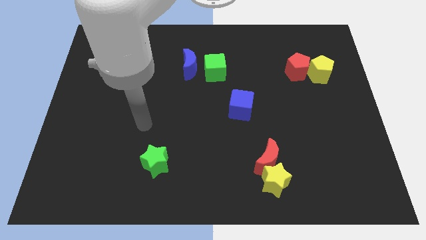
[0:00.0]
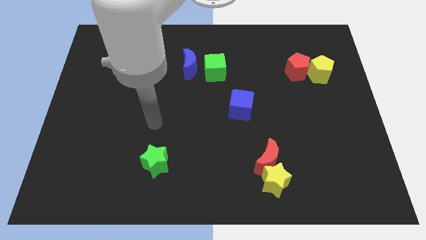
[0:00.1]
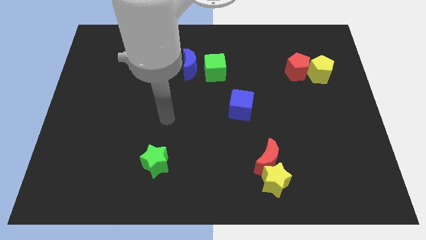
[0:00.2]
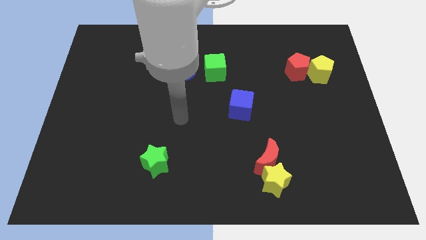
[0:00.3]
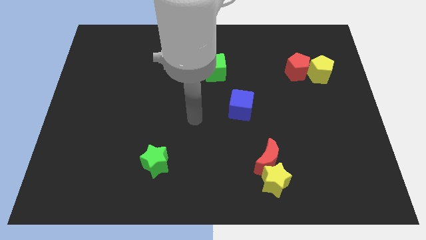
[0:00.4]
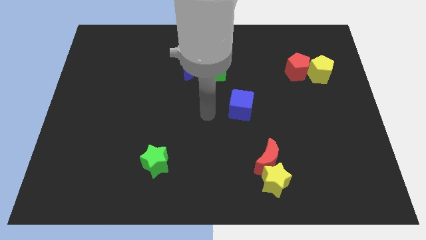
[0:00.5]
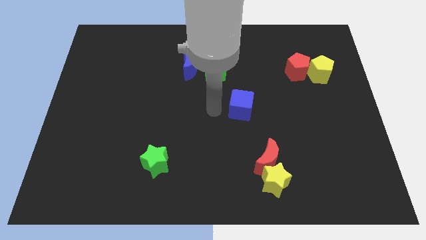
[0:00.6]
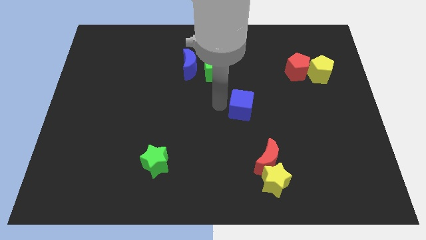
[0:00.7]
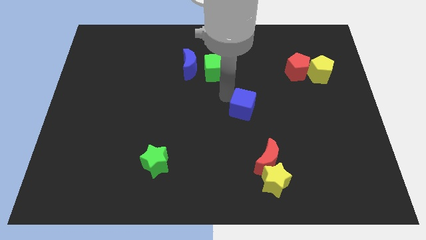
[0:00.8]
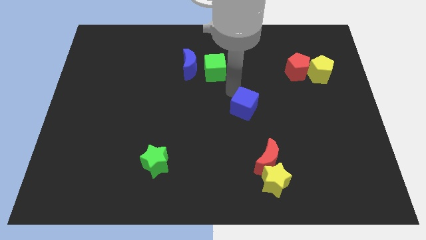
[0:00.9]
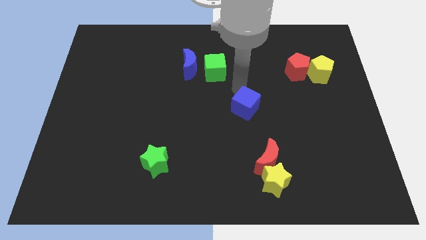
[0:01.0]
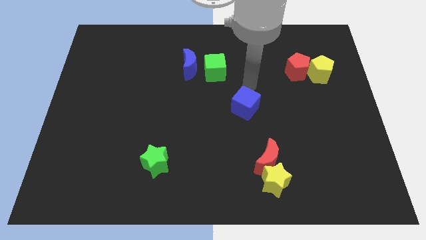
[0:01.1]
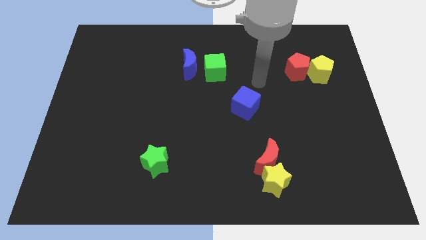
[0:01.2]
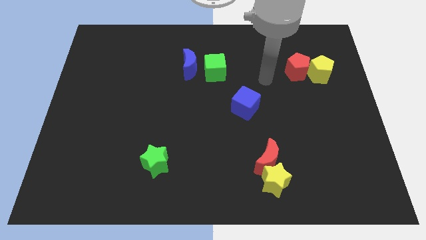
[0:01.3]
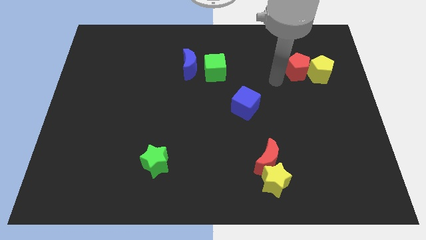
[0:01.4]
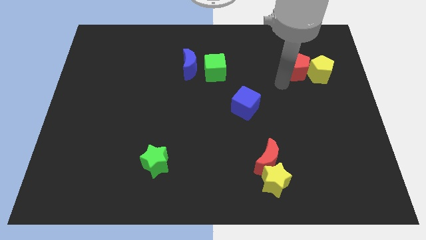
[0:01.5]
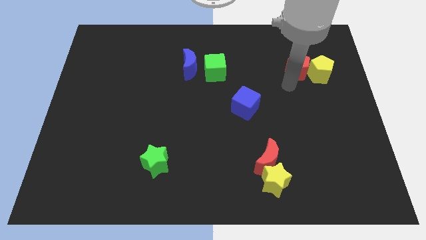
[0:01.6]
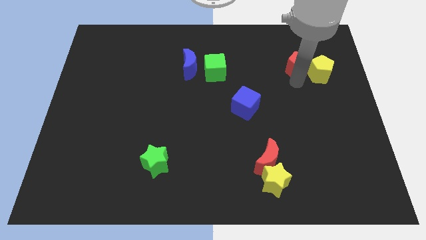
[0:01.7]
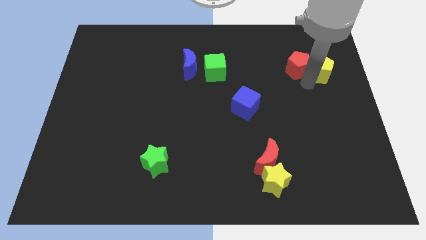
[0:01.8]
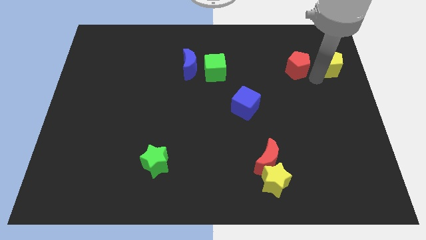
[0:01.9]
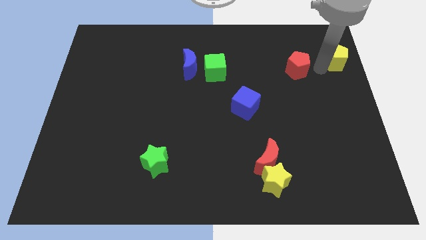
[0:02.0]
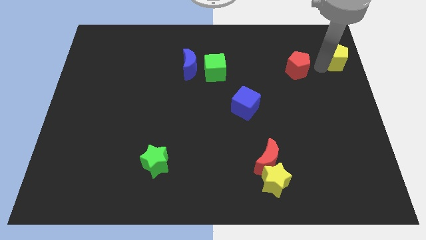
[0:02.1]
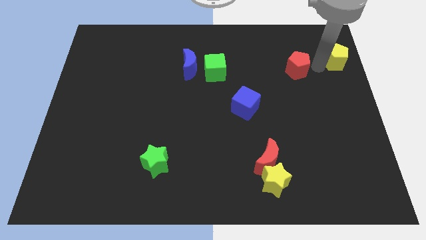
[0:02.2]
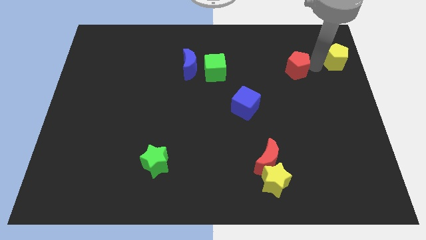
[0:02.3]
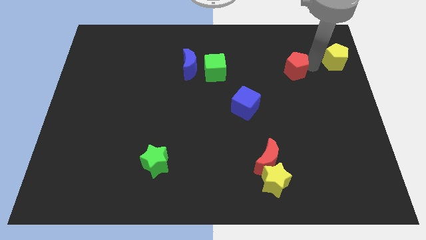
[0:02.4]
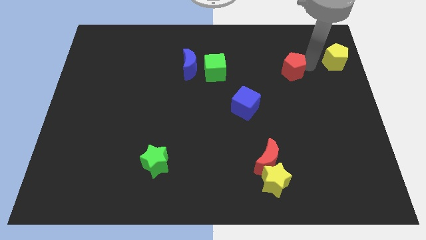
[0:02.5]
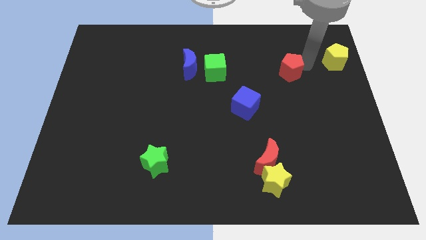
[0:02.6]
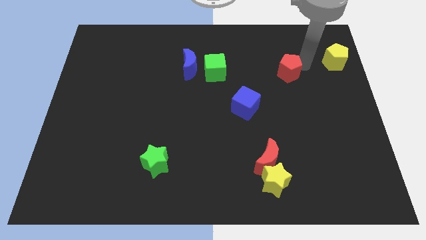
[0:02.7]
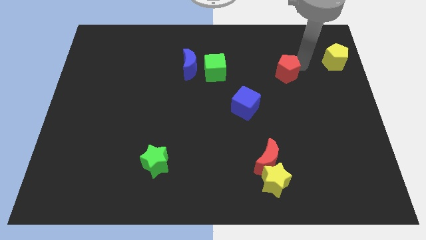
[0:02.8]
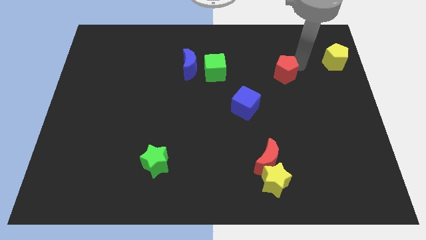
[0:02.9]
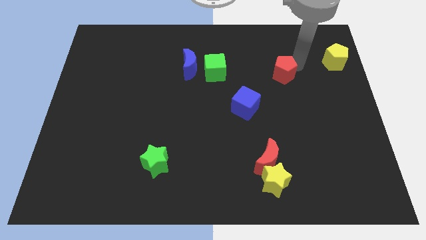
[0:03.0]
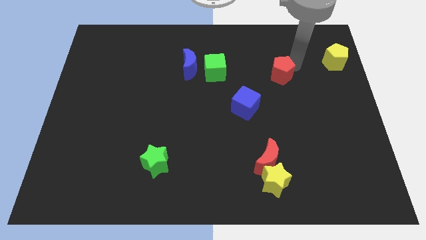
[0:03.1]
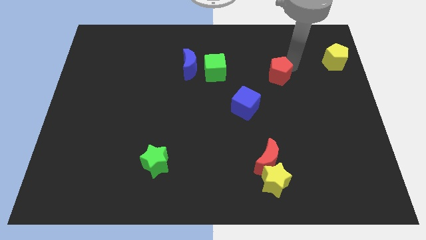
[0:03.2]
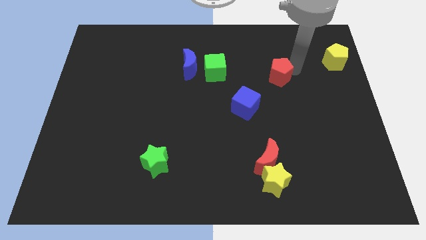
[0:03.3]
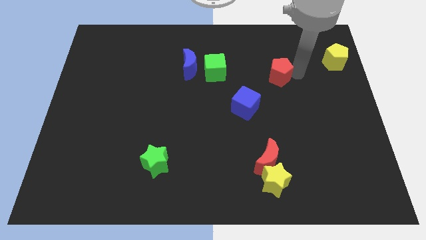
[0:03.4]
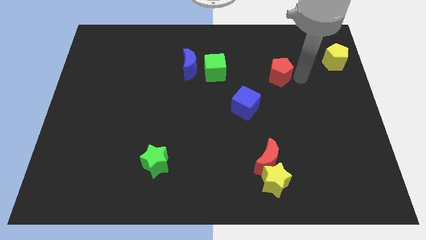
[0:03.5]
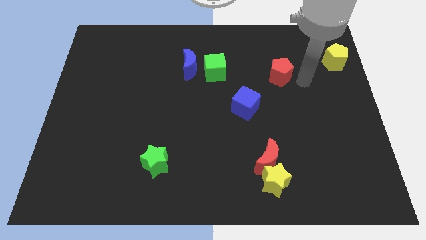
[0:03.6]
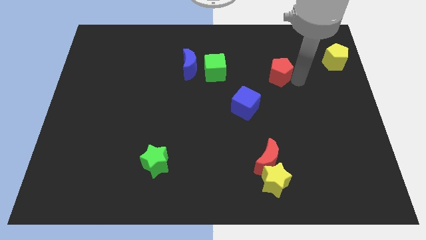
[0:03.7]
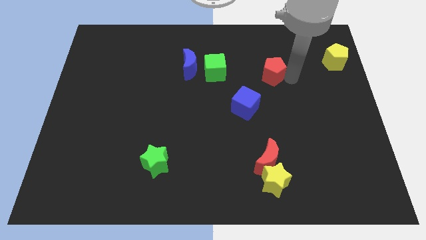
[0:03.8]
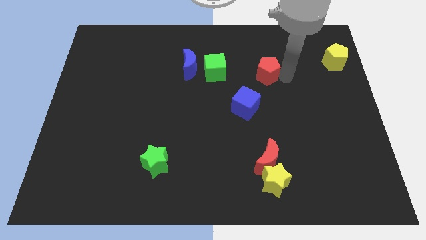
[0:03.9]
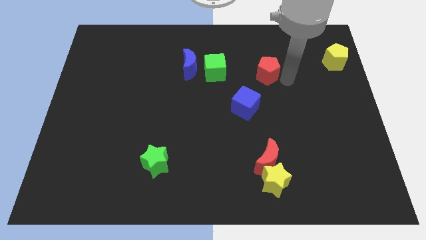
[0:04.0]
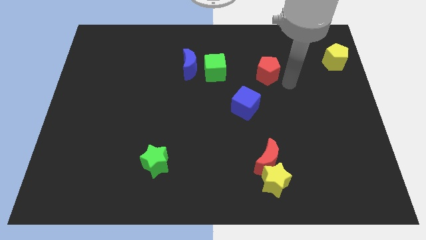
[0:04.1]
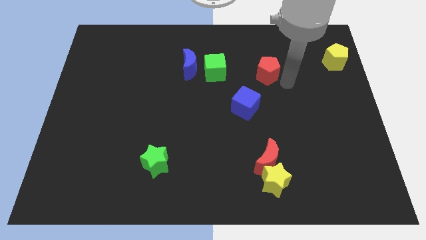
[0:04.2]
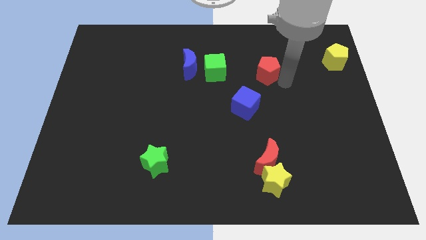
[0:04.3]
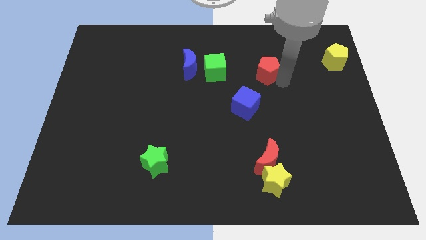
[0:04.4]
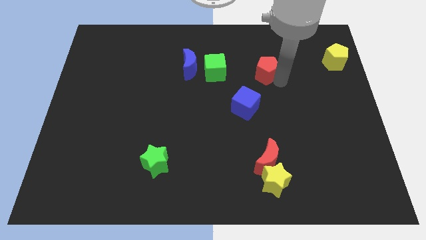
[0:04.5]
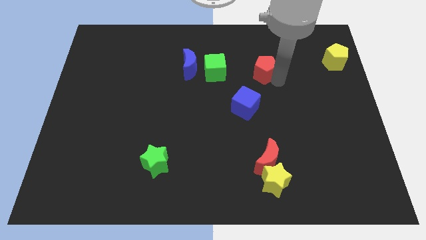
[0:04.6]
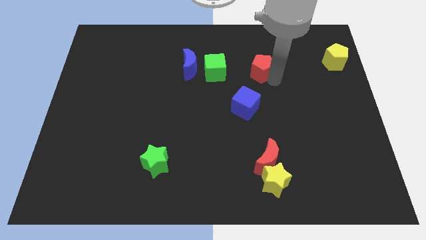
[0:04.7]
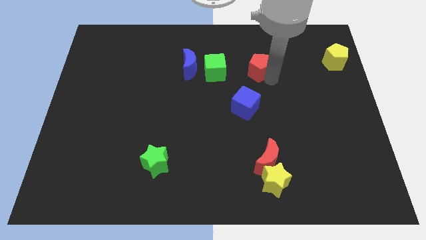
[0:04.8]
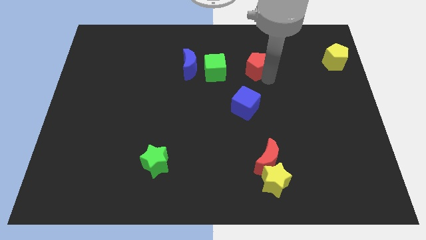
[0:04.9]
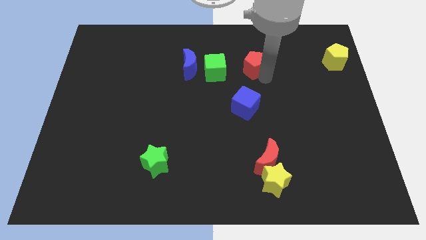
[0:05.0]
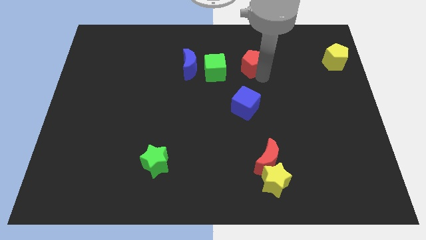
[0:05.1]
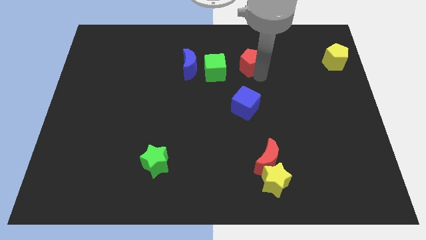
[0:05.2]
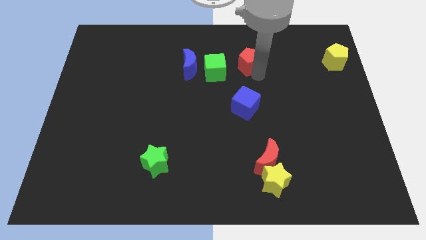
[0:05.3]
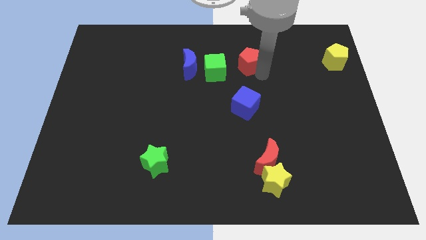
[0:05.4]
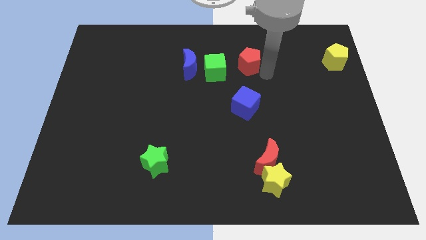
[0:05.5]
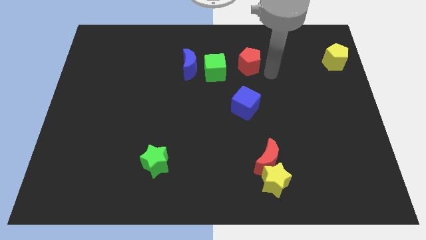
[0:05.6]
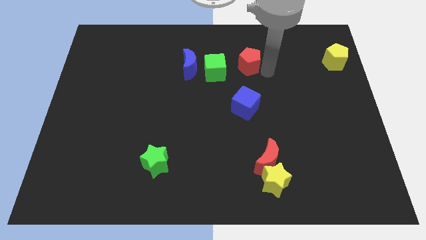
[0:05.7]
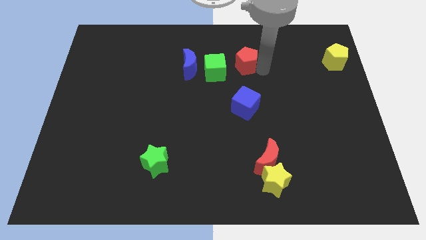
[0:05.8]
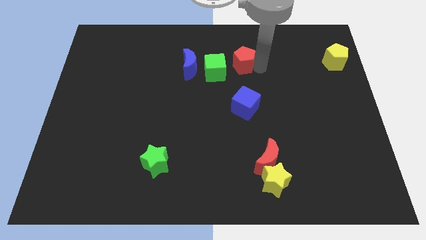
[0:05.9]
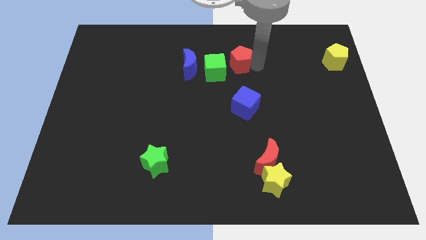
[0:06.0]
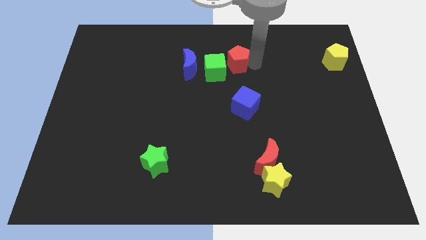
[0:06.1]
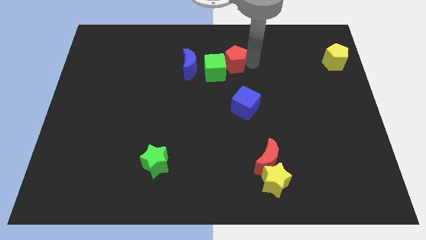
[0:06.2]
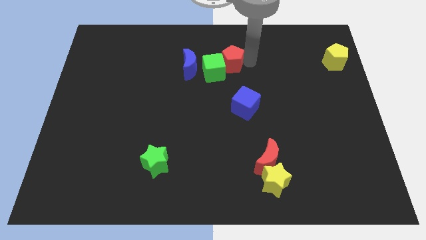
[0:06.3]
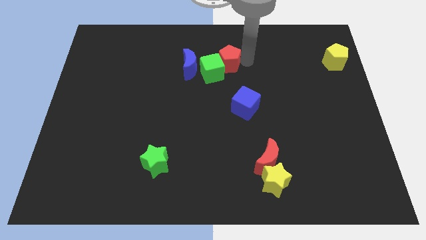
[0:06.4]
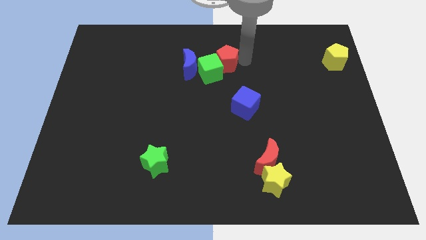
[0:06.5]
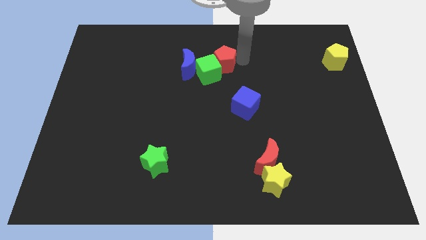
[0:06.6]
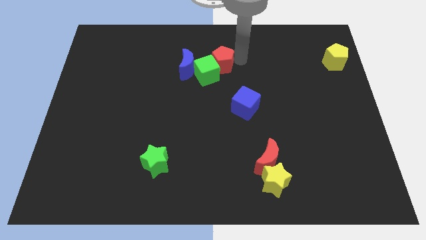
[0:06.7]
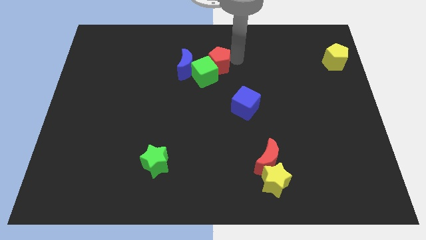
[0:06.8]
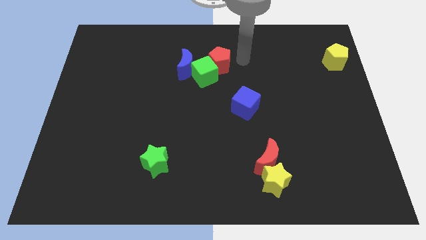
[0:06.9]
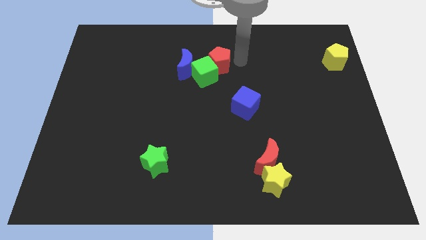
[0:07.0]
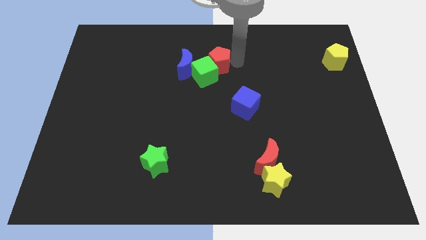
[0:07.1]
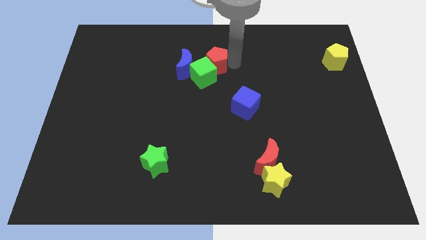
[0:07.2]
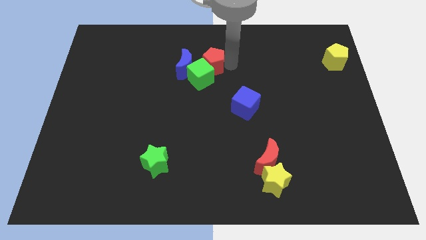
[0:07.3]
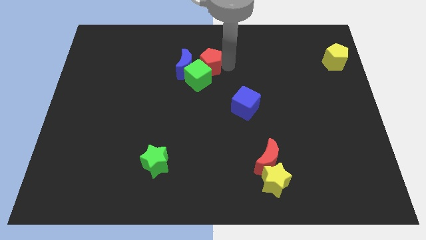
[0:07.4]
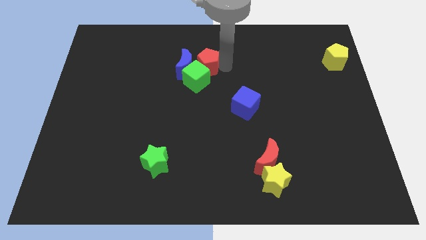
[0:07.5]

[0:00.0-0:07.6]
slide the red pentagon to the blue moon
